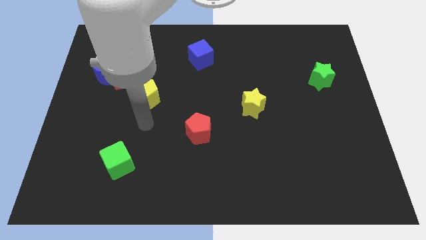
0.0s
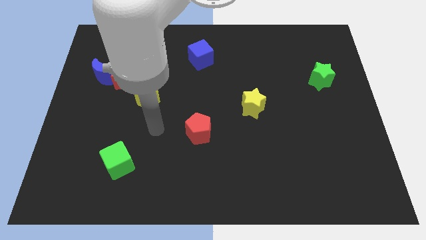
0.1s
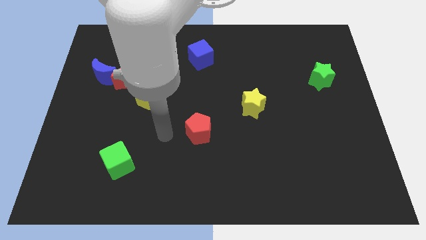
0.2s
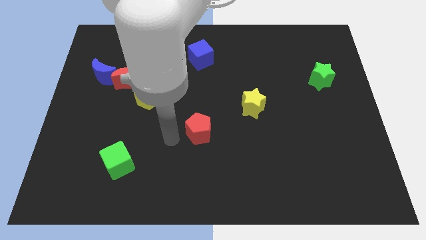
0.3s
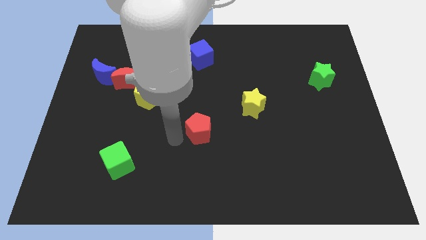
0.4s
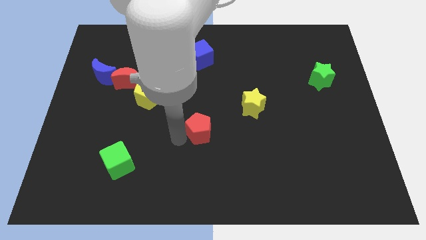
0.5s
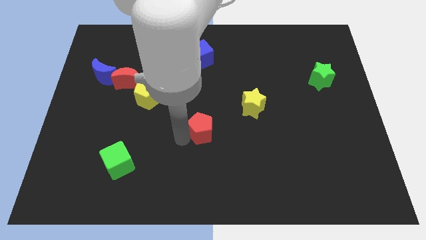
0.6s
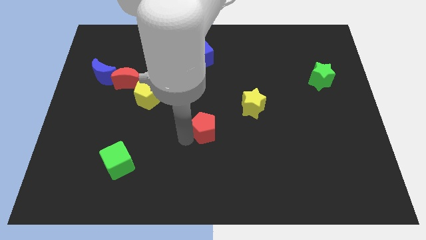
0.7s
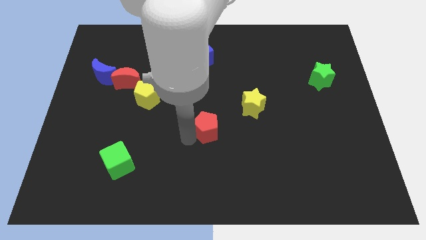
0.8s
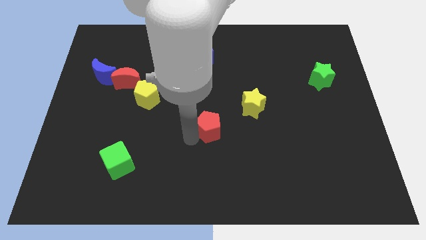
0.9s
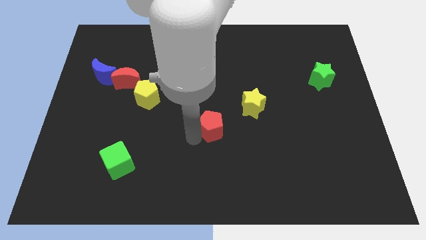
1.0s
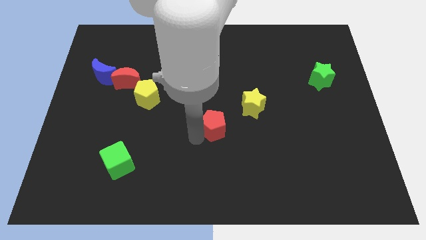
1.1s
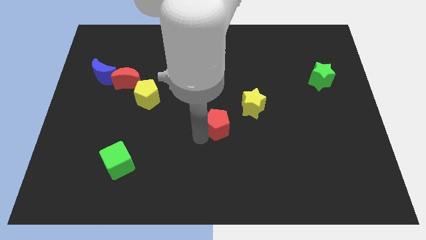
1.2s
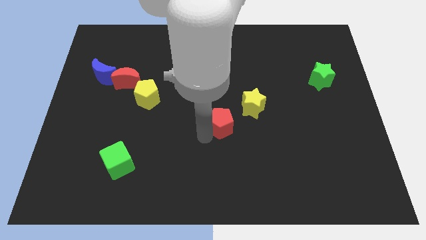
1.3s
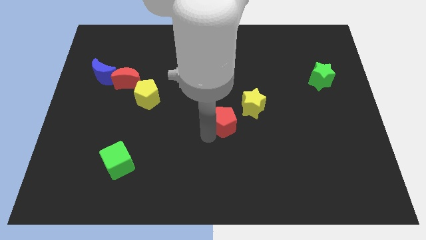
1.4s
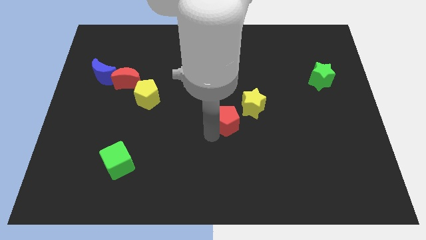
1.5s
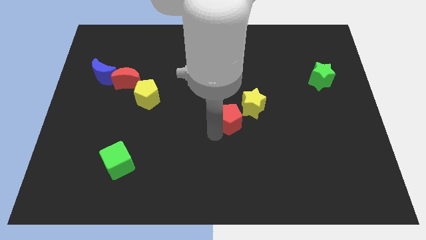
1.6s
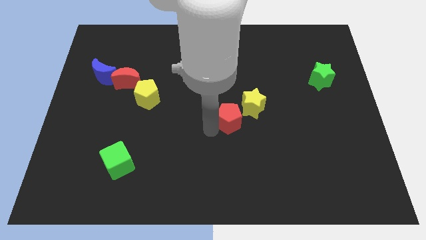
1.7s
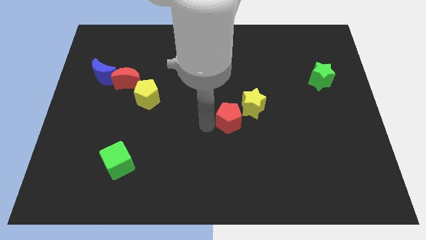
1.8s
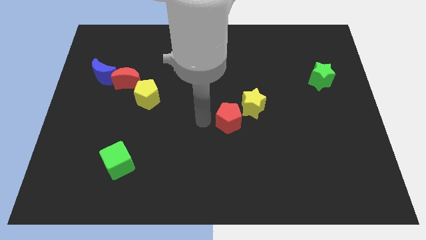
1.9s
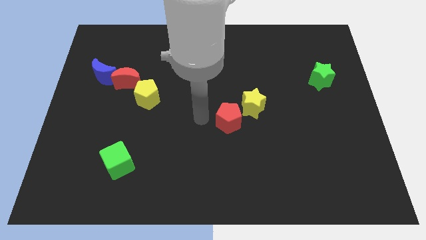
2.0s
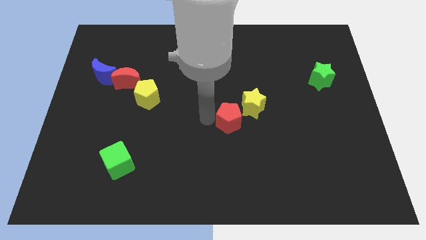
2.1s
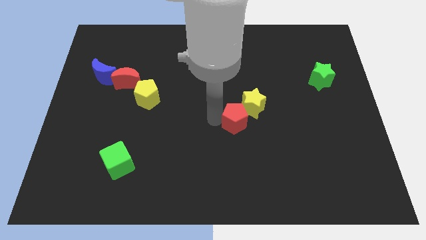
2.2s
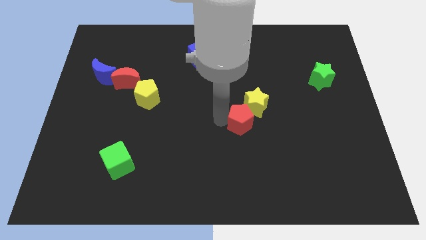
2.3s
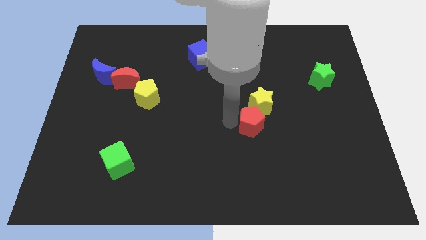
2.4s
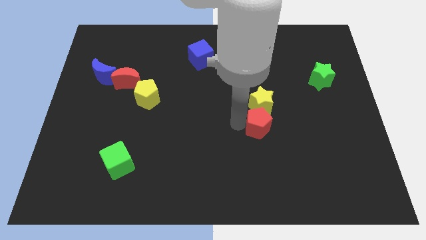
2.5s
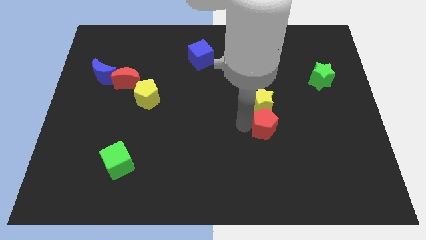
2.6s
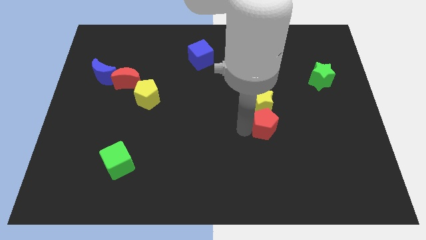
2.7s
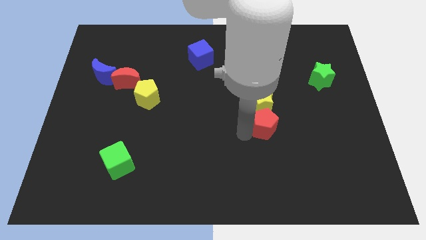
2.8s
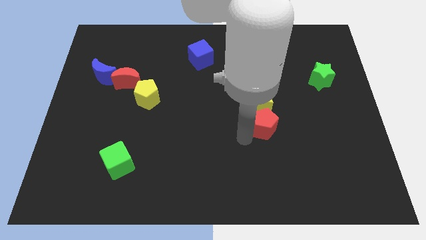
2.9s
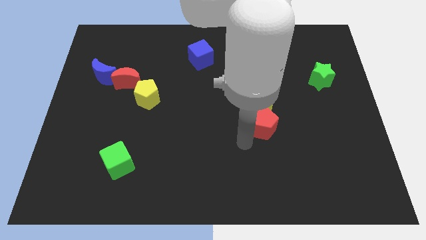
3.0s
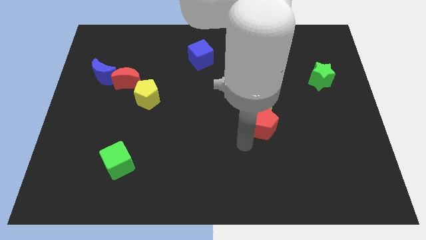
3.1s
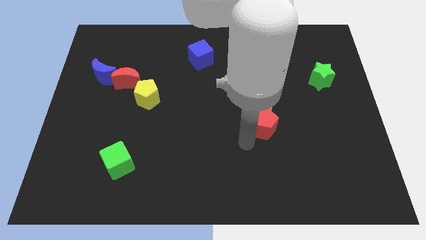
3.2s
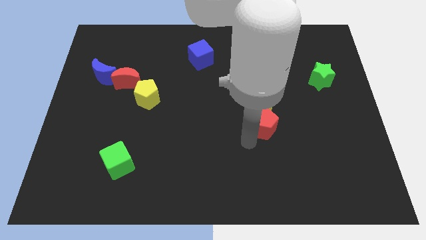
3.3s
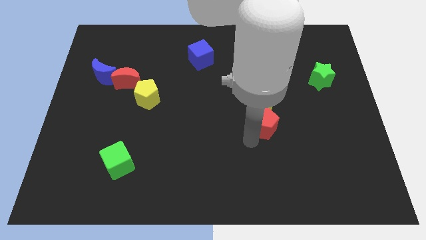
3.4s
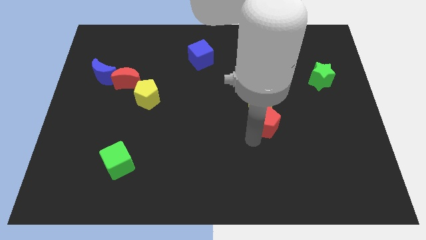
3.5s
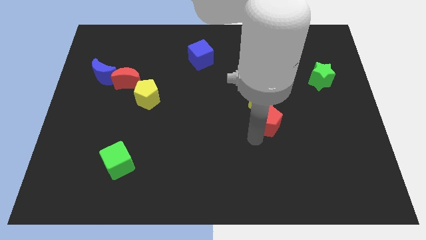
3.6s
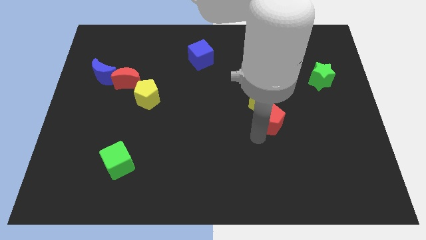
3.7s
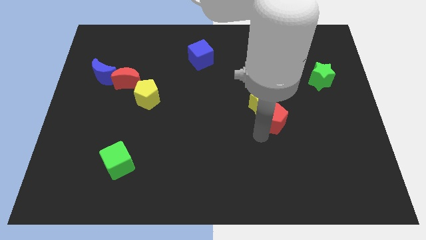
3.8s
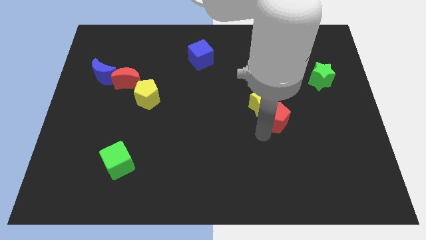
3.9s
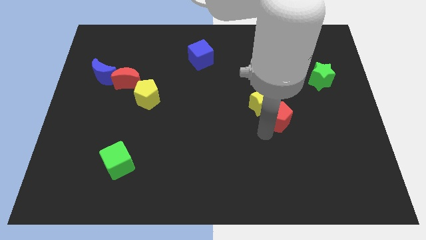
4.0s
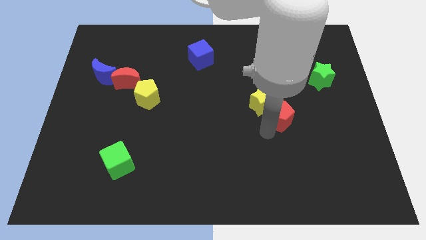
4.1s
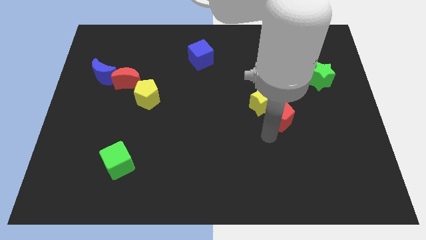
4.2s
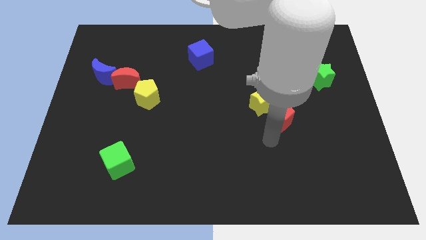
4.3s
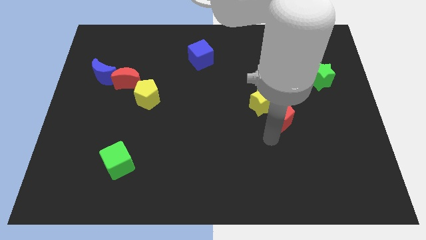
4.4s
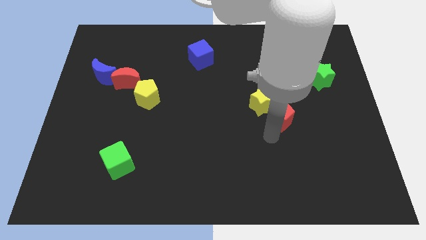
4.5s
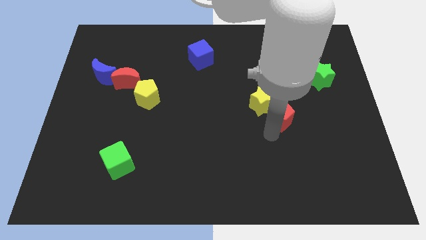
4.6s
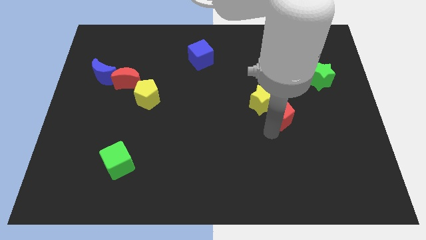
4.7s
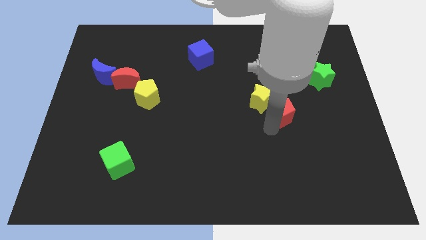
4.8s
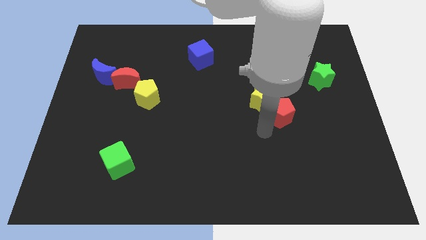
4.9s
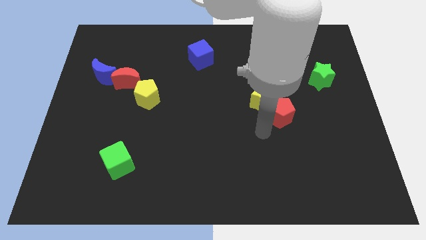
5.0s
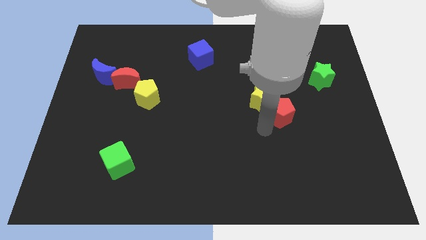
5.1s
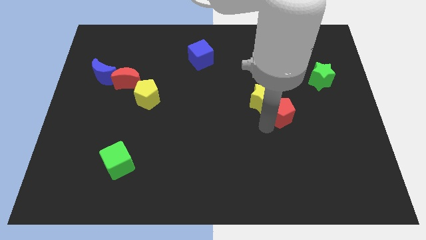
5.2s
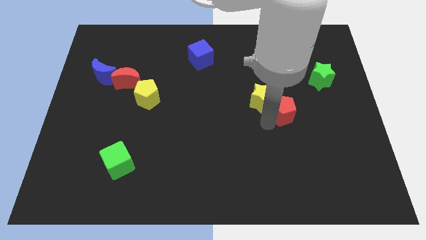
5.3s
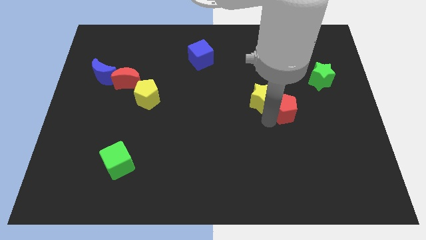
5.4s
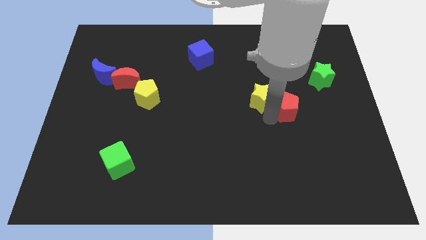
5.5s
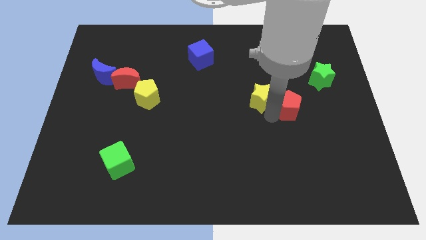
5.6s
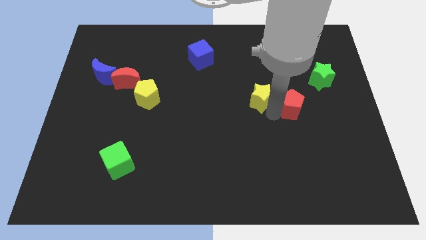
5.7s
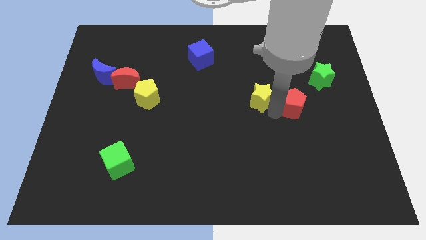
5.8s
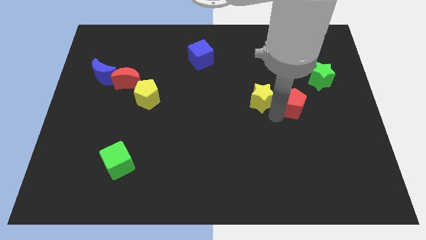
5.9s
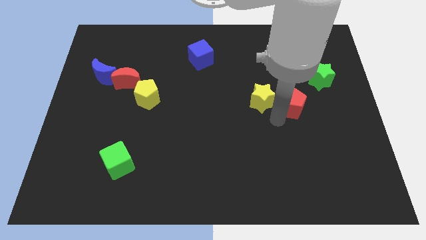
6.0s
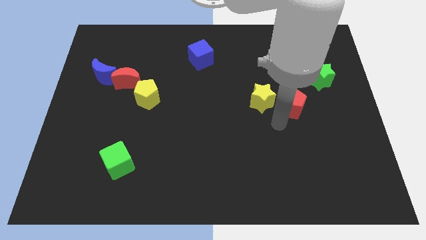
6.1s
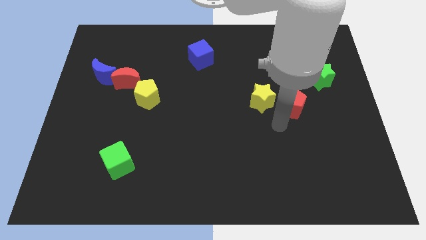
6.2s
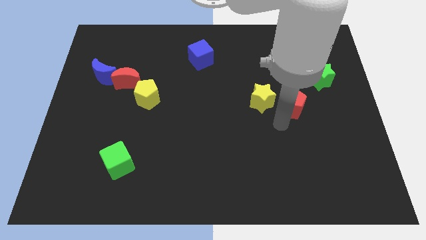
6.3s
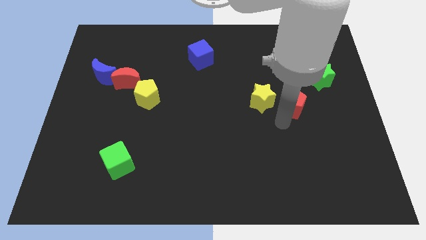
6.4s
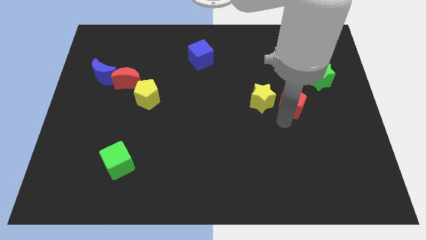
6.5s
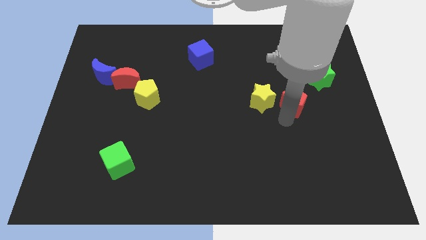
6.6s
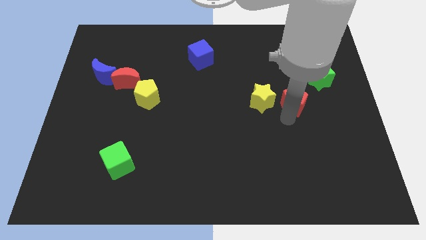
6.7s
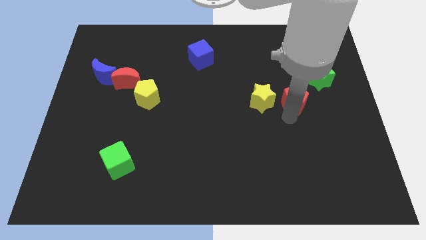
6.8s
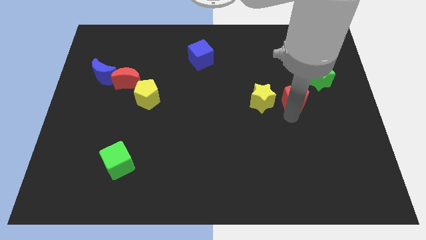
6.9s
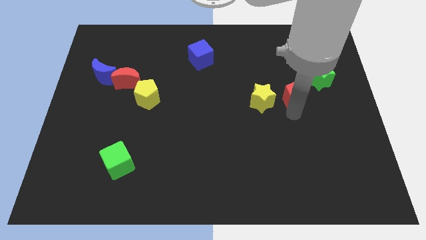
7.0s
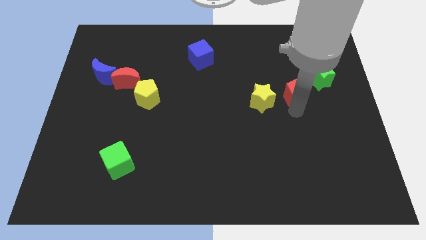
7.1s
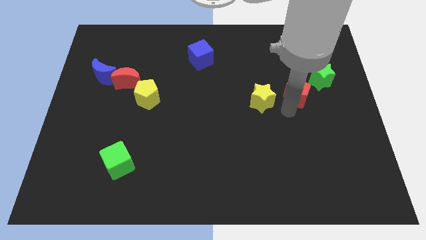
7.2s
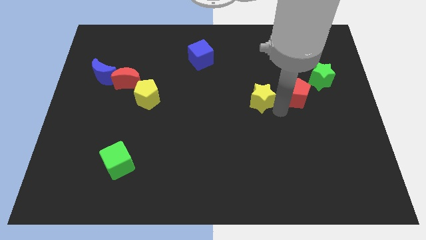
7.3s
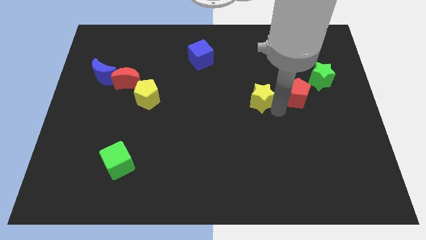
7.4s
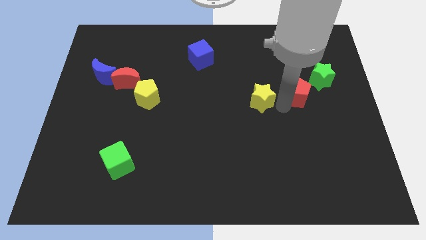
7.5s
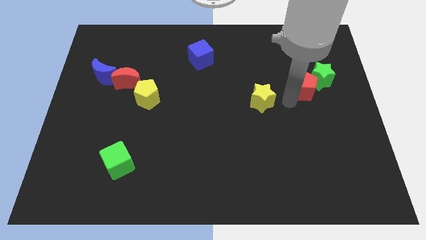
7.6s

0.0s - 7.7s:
push the red pentagon close to the green star
